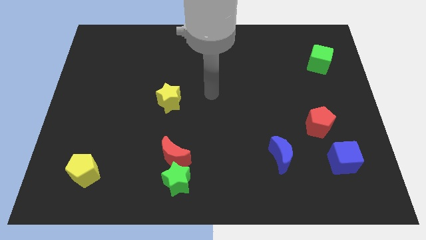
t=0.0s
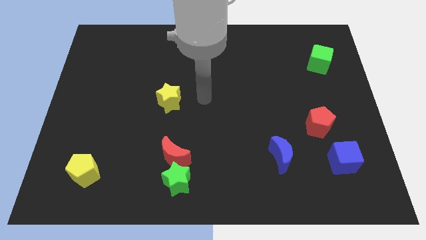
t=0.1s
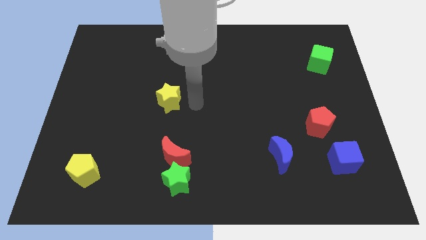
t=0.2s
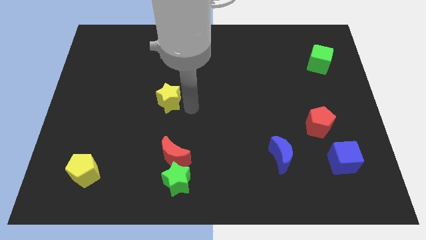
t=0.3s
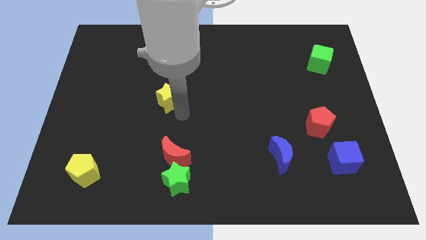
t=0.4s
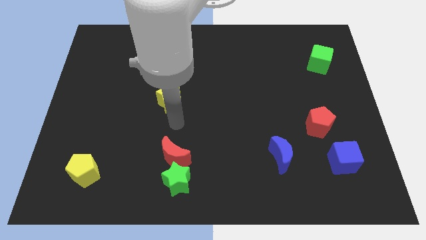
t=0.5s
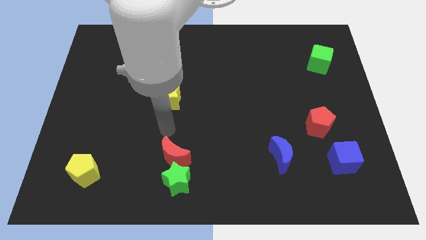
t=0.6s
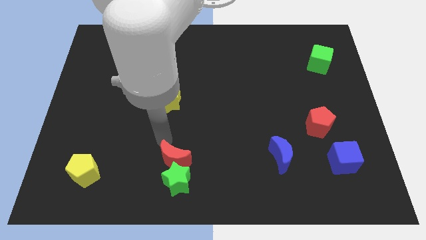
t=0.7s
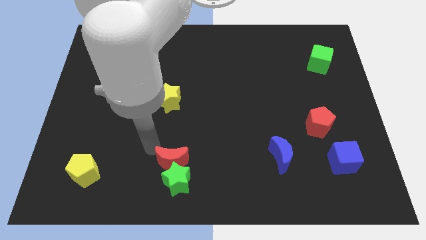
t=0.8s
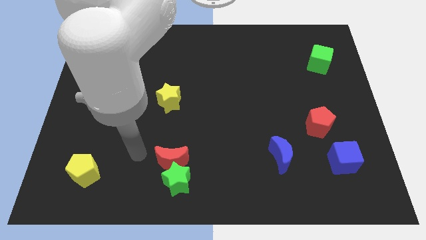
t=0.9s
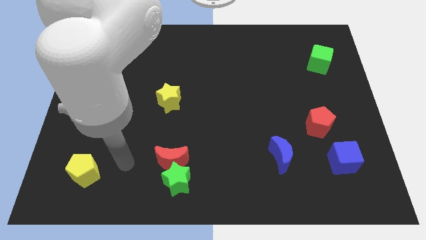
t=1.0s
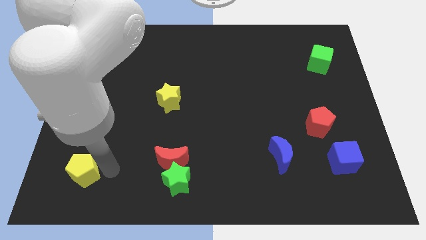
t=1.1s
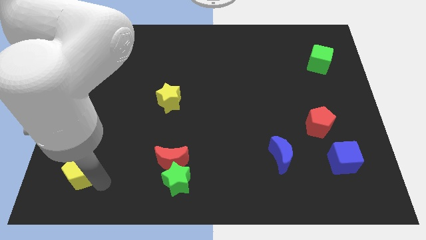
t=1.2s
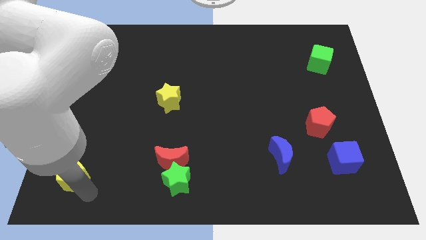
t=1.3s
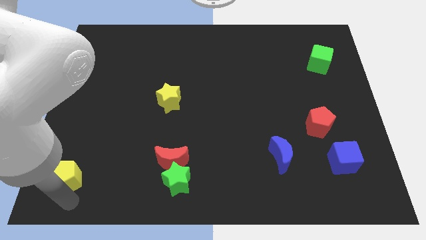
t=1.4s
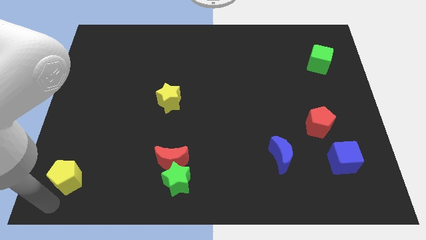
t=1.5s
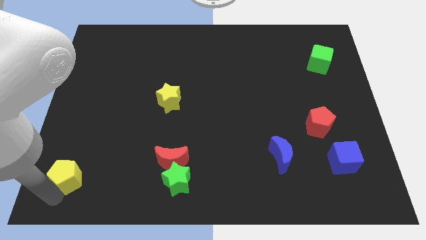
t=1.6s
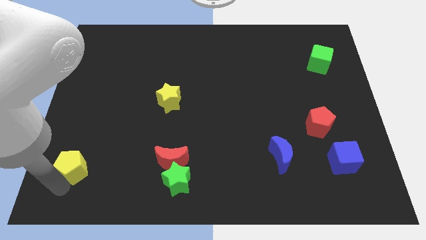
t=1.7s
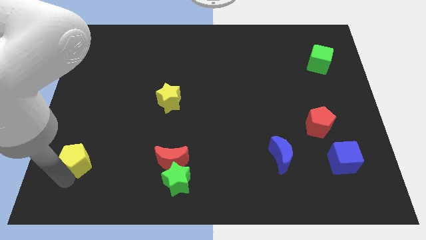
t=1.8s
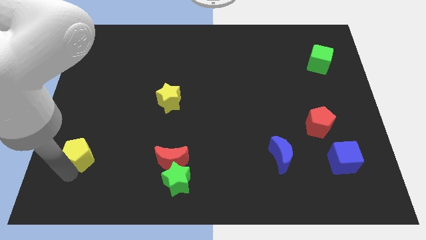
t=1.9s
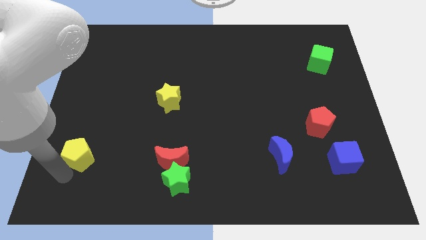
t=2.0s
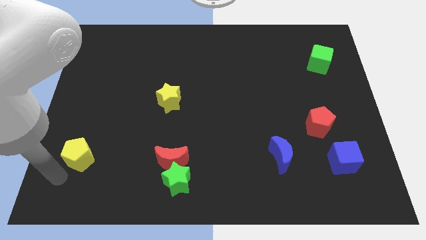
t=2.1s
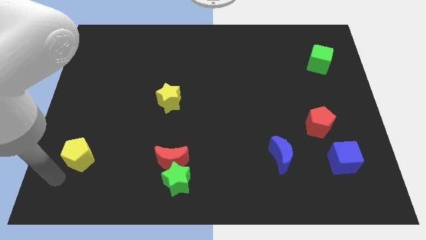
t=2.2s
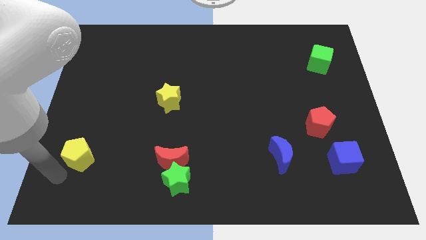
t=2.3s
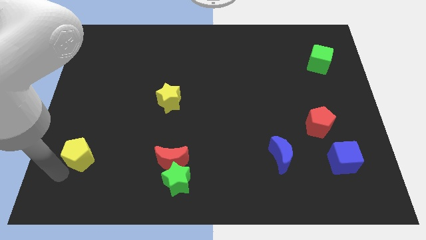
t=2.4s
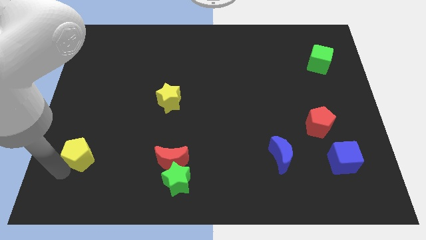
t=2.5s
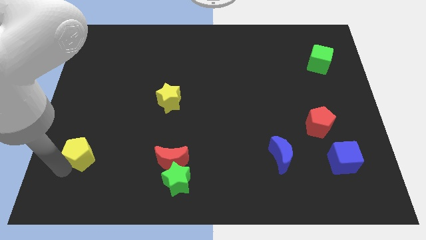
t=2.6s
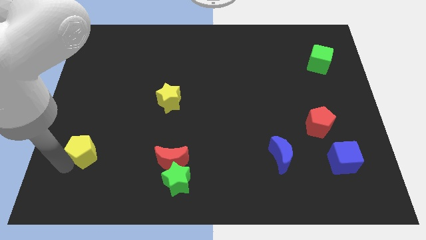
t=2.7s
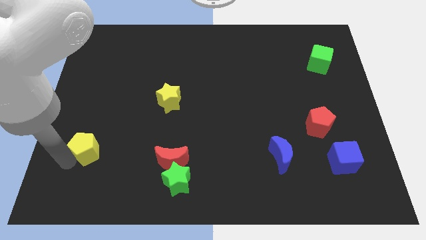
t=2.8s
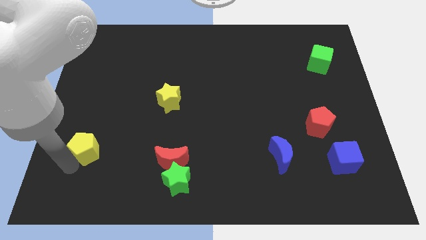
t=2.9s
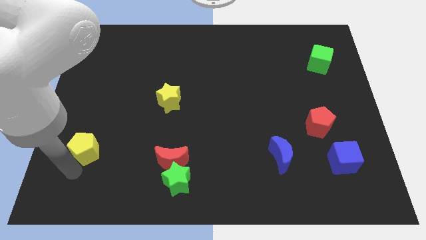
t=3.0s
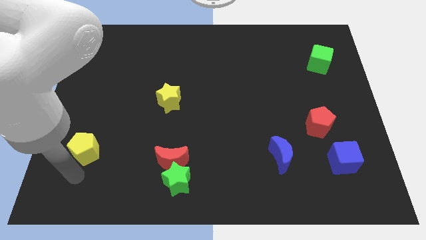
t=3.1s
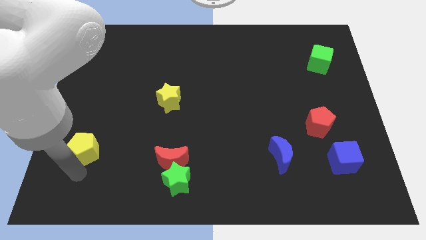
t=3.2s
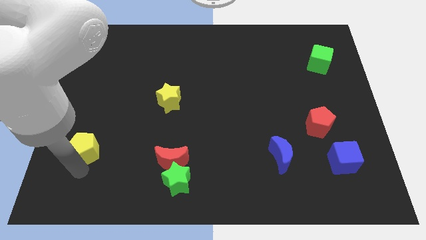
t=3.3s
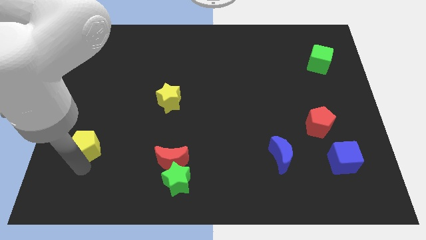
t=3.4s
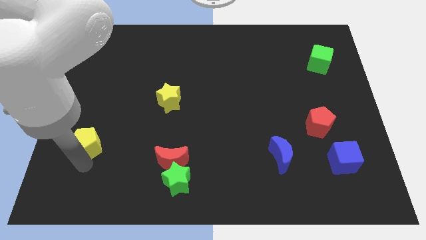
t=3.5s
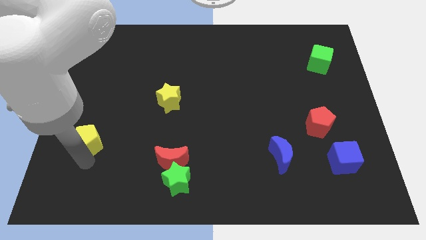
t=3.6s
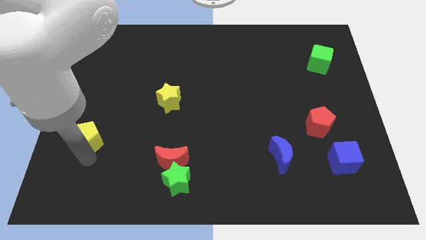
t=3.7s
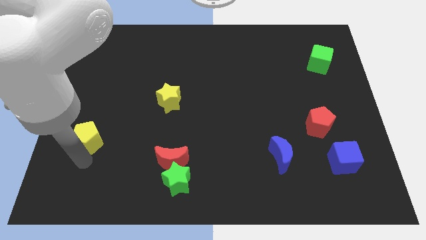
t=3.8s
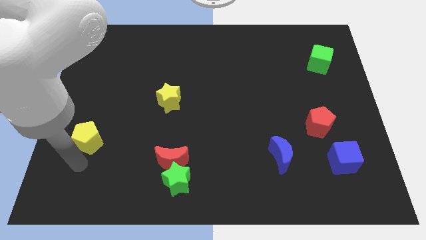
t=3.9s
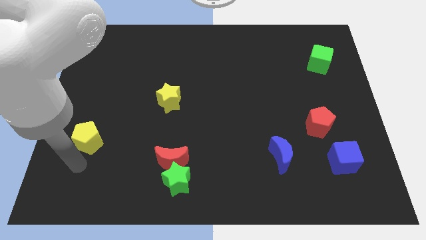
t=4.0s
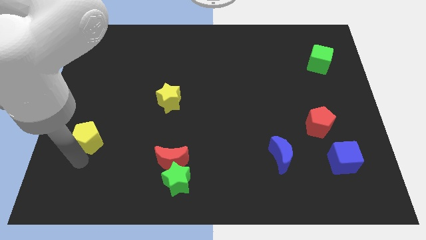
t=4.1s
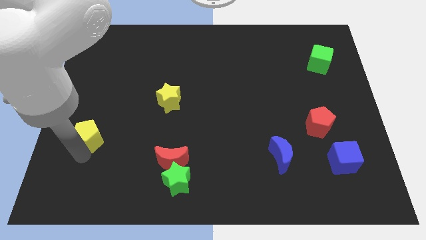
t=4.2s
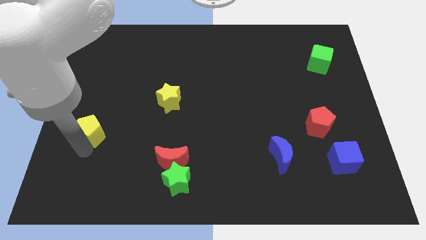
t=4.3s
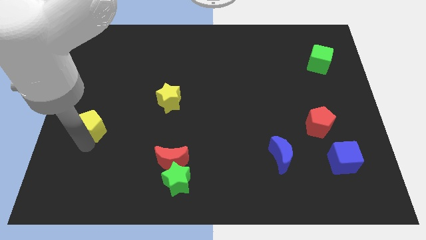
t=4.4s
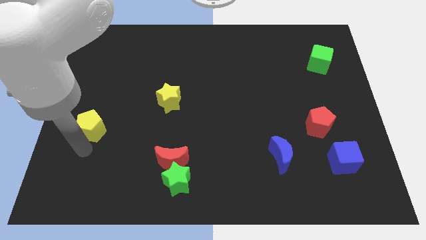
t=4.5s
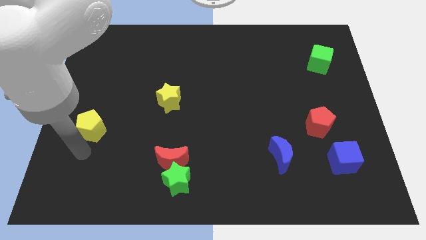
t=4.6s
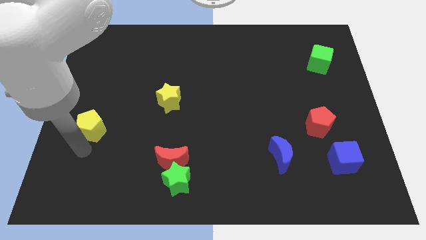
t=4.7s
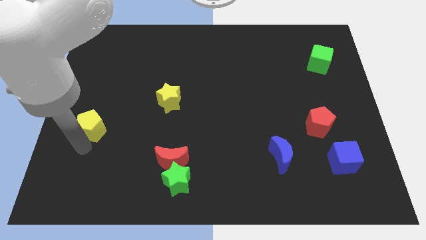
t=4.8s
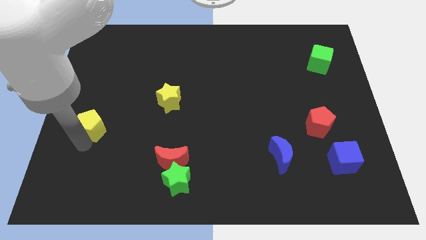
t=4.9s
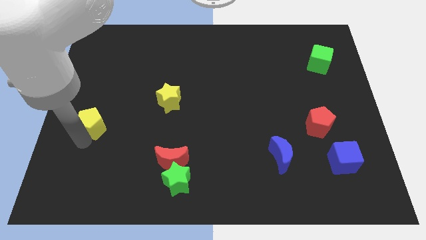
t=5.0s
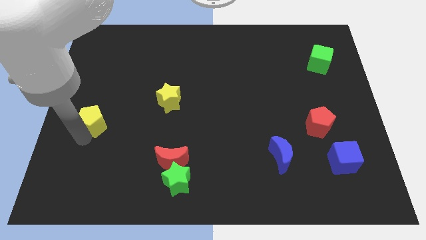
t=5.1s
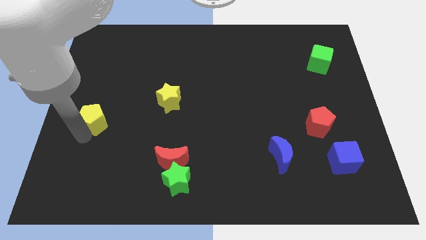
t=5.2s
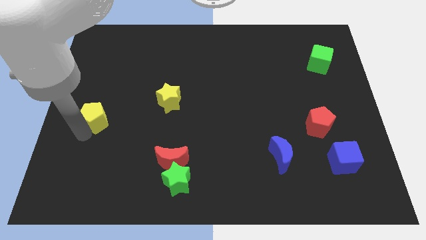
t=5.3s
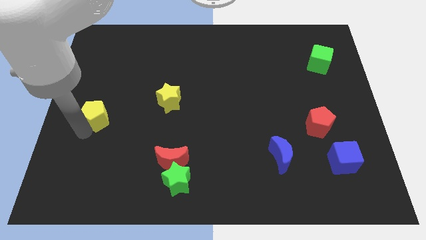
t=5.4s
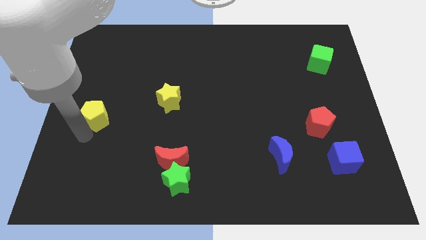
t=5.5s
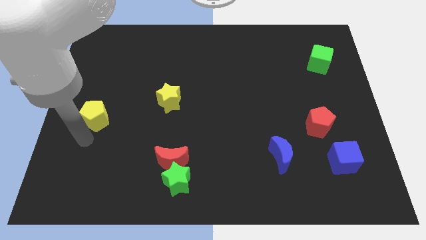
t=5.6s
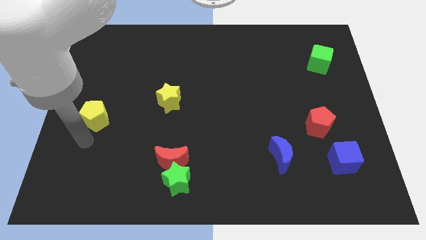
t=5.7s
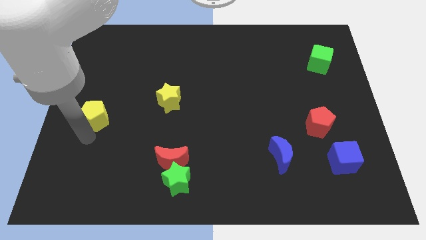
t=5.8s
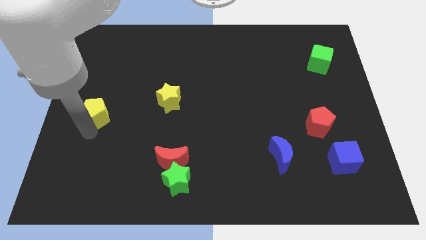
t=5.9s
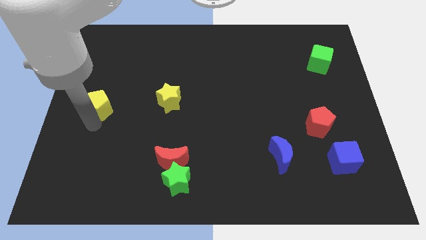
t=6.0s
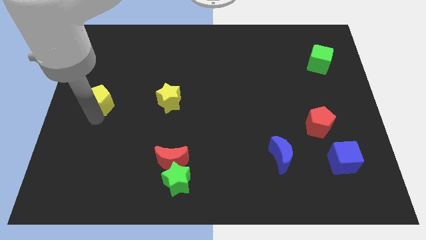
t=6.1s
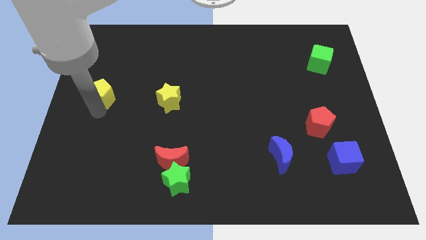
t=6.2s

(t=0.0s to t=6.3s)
push the yellow pentagon up

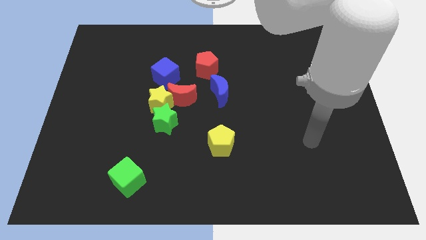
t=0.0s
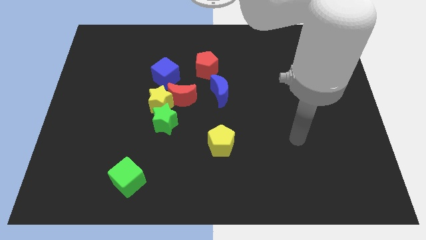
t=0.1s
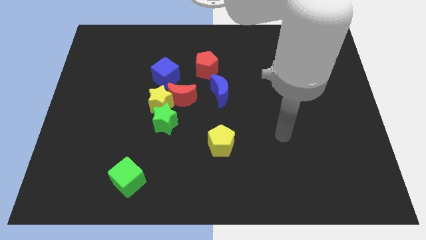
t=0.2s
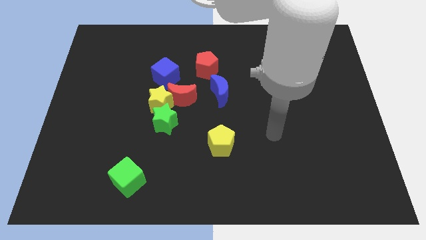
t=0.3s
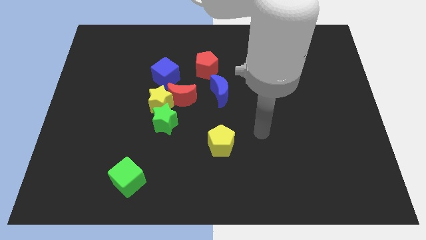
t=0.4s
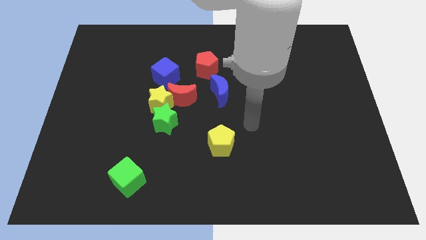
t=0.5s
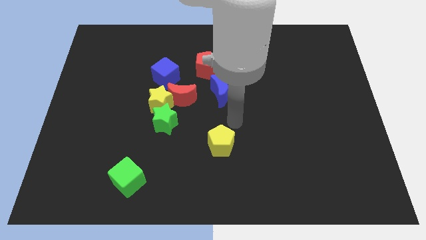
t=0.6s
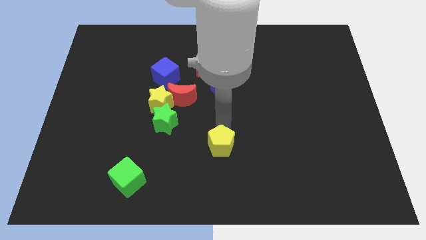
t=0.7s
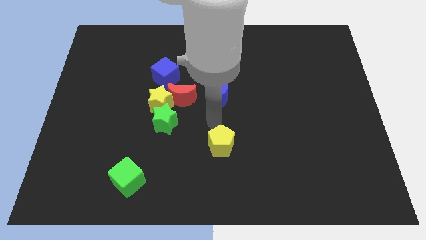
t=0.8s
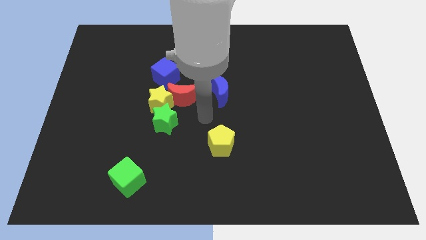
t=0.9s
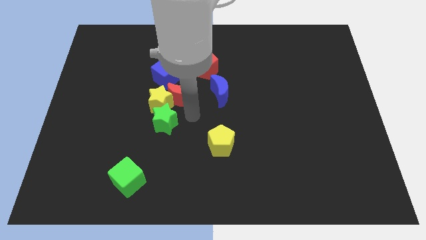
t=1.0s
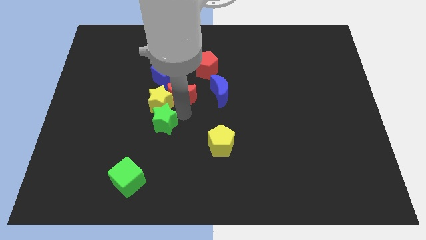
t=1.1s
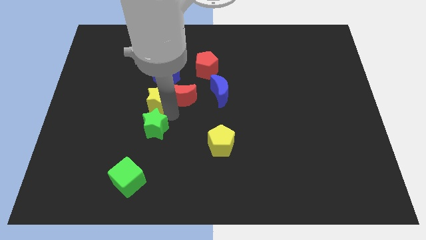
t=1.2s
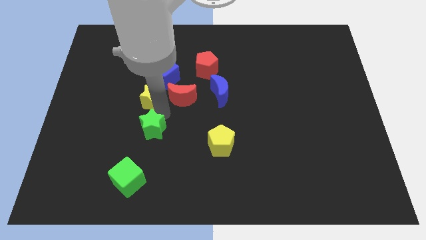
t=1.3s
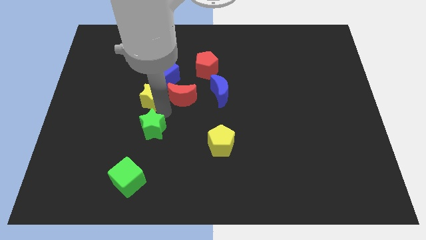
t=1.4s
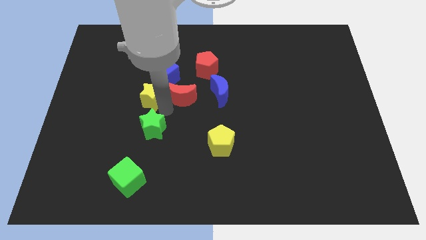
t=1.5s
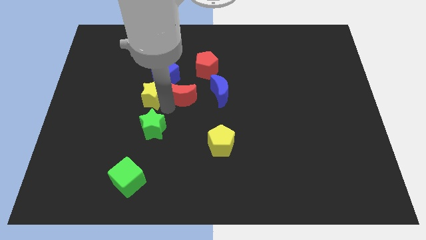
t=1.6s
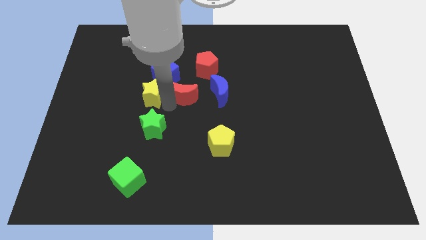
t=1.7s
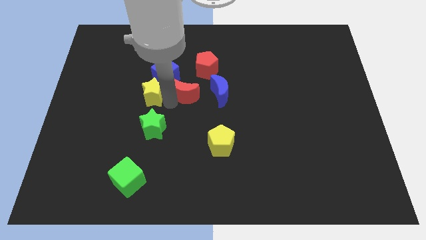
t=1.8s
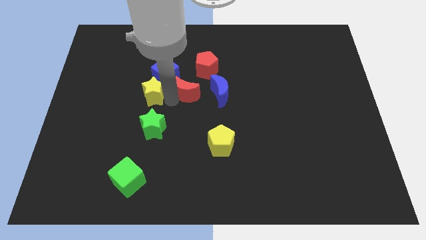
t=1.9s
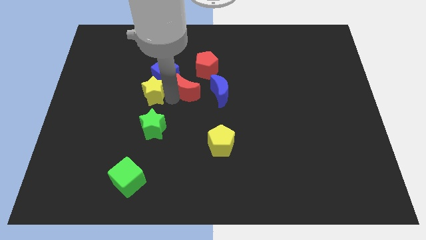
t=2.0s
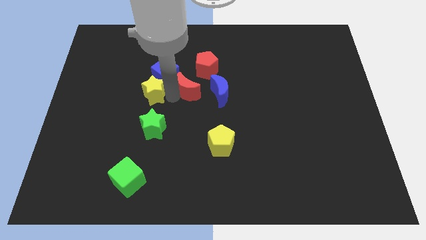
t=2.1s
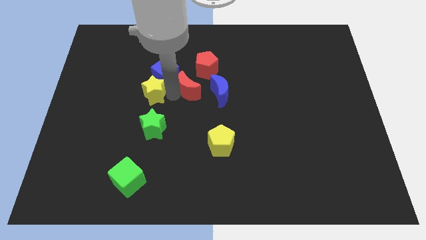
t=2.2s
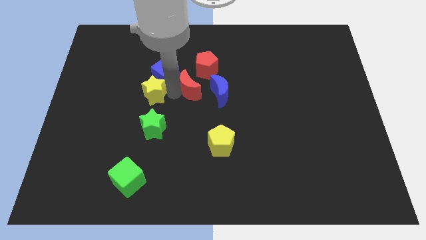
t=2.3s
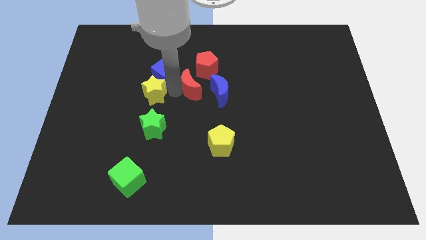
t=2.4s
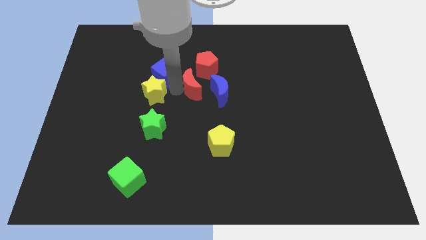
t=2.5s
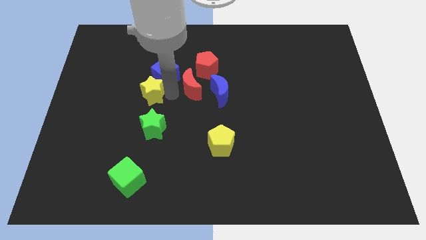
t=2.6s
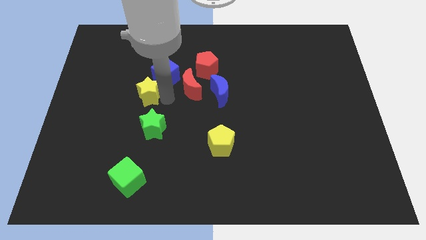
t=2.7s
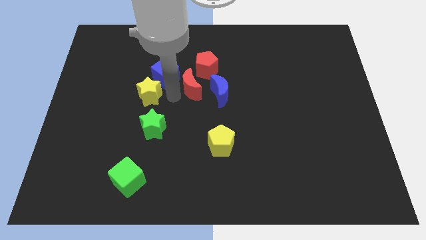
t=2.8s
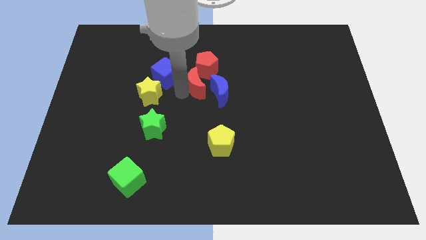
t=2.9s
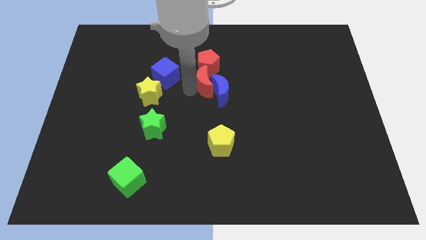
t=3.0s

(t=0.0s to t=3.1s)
slide the red moon up and to the right diagonally slightly
